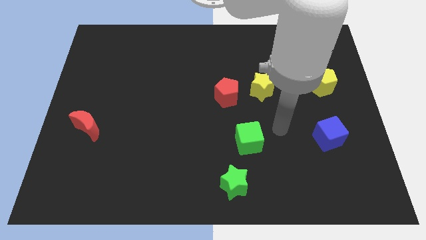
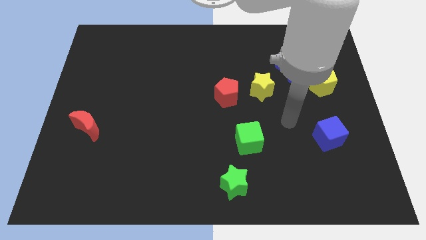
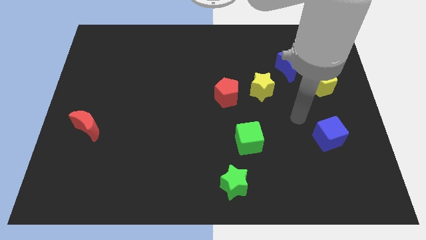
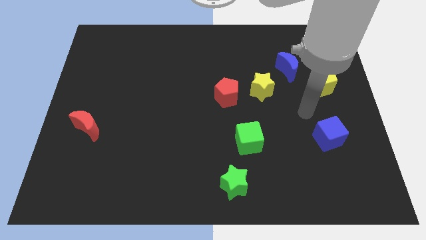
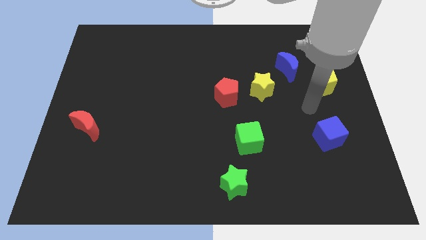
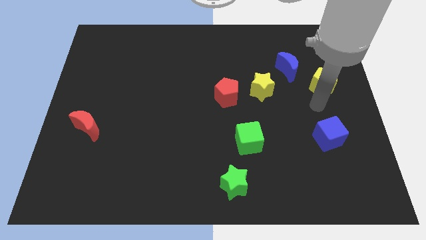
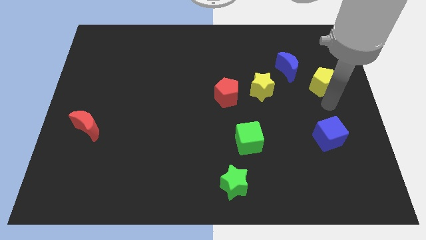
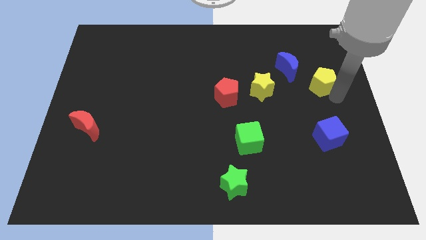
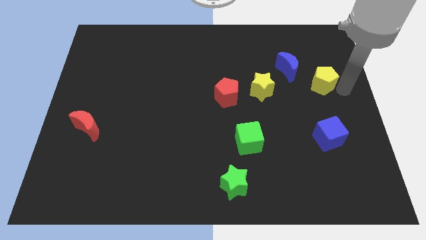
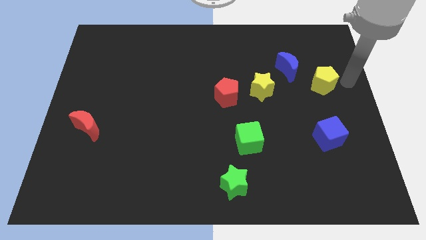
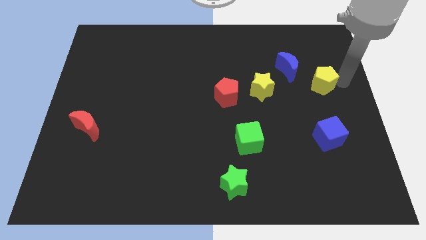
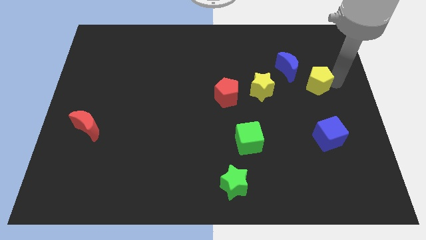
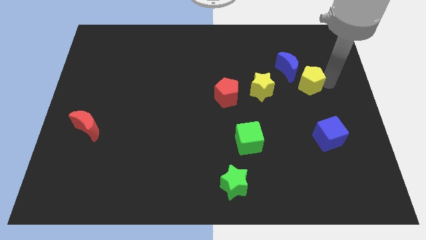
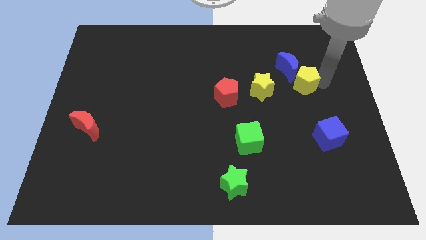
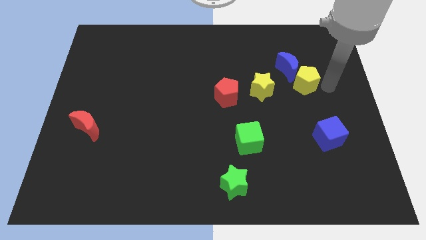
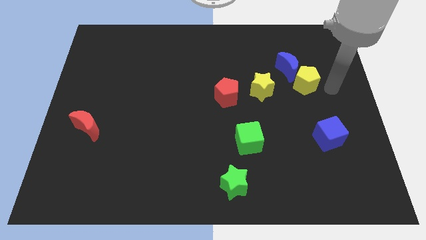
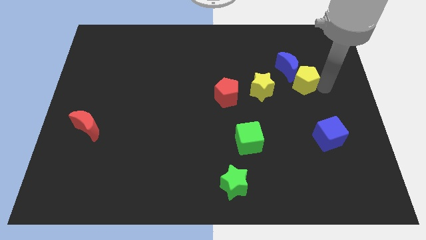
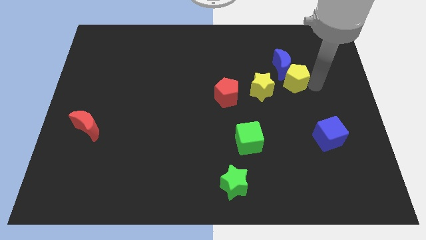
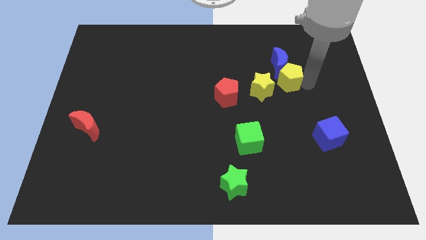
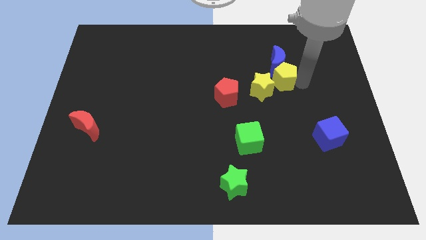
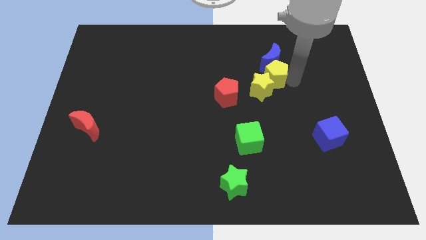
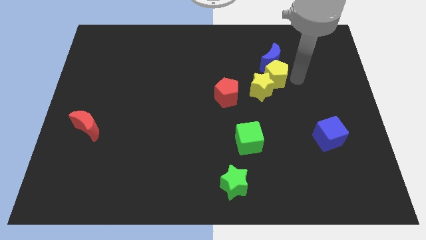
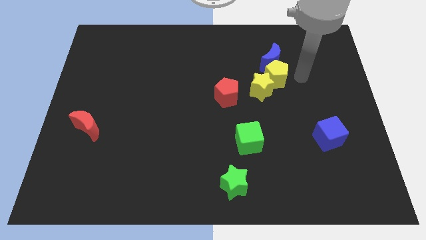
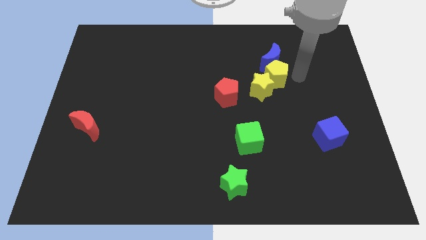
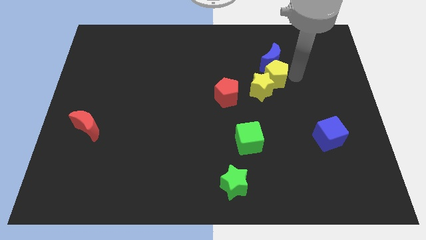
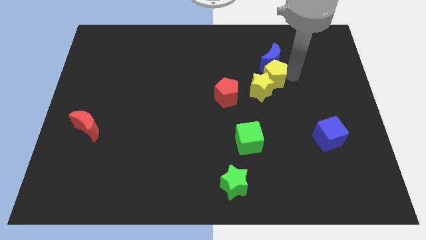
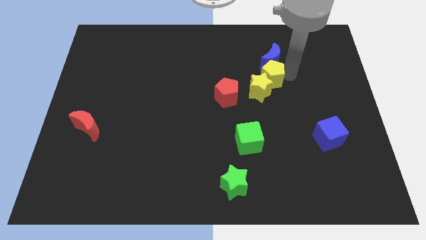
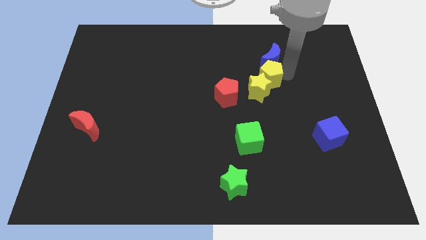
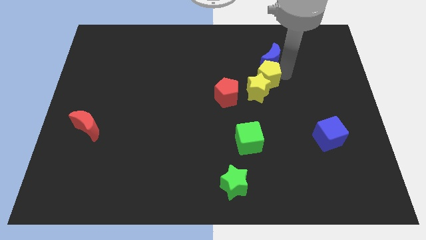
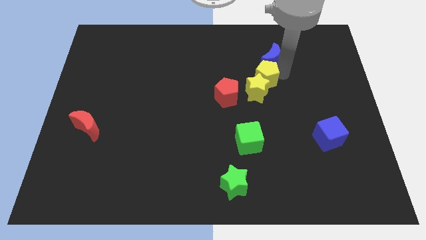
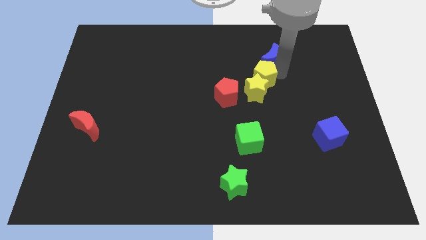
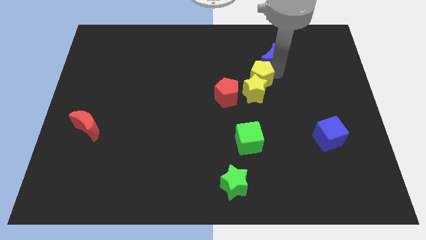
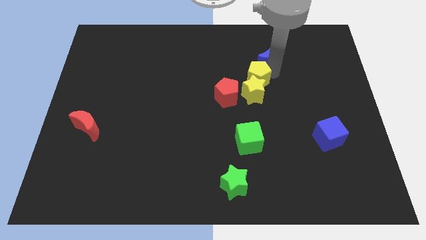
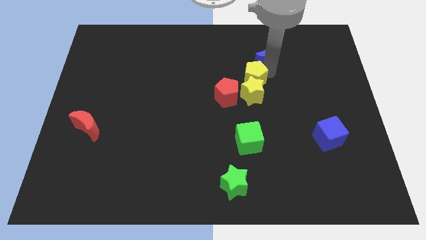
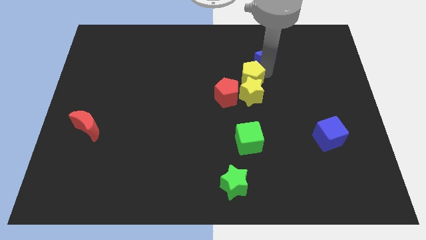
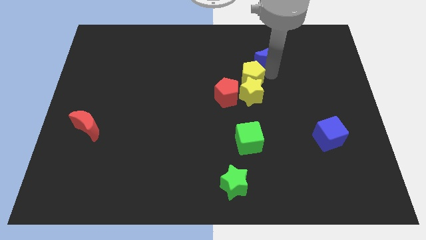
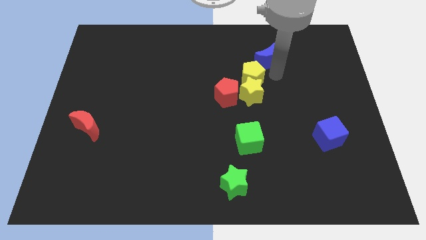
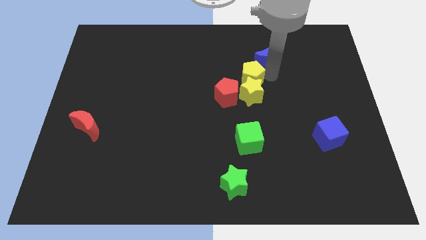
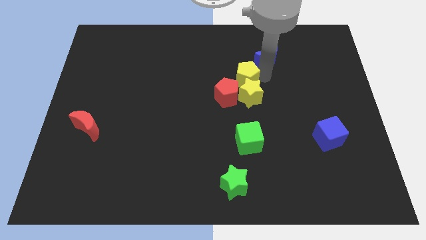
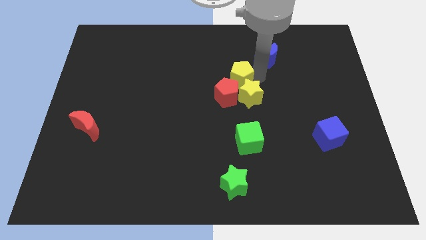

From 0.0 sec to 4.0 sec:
move the yellow pentagon left

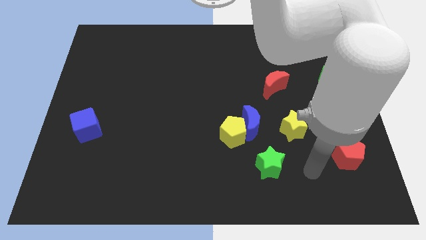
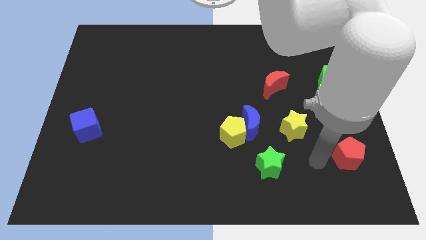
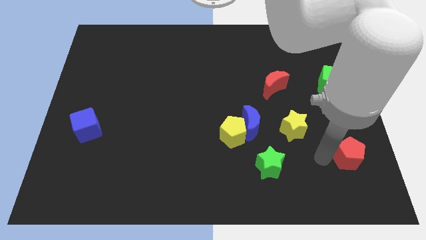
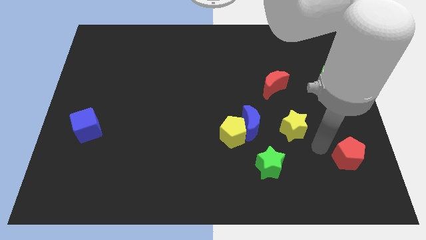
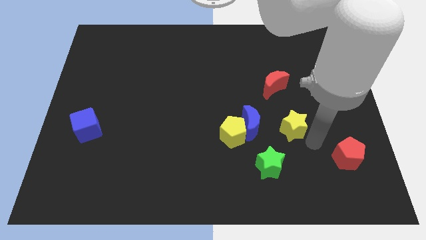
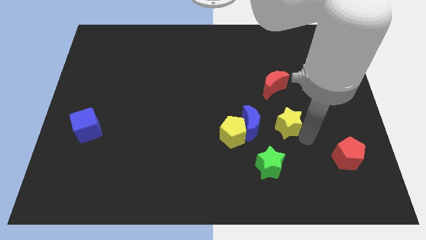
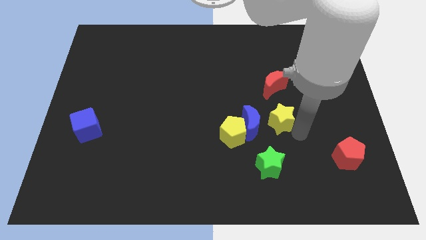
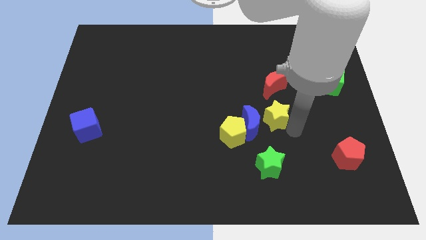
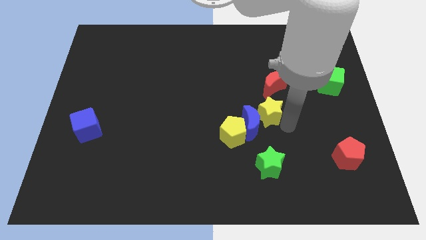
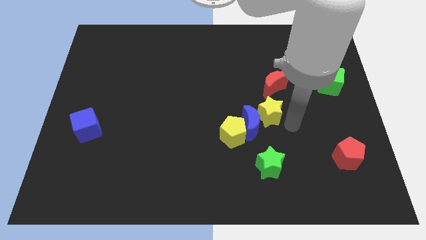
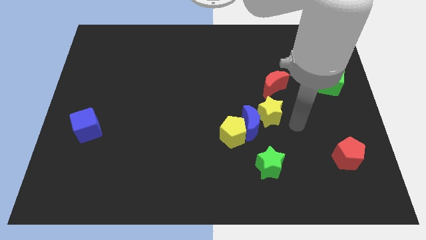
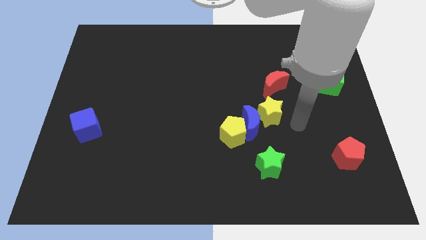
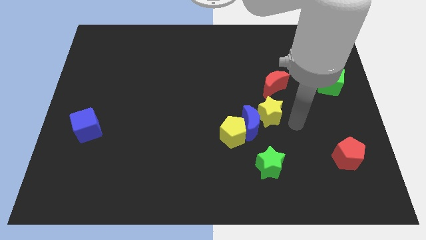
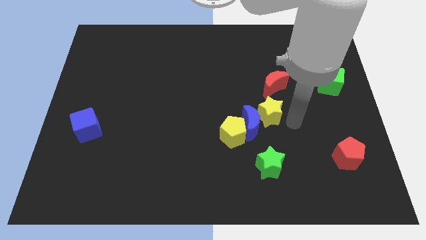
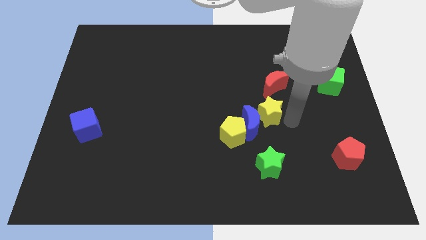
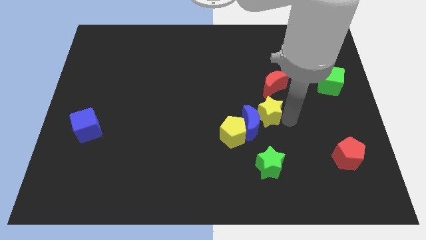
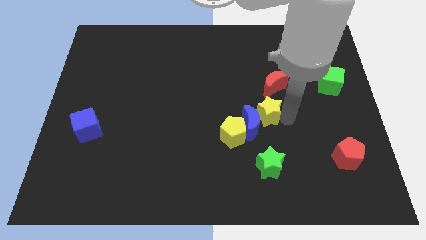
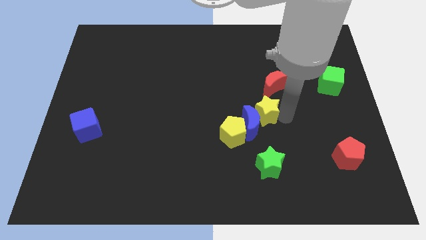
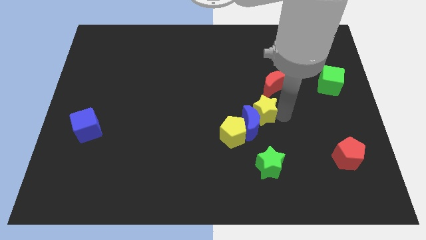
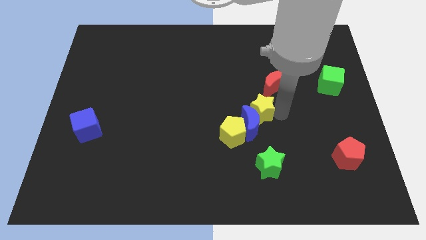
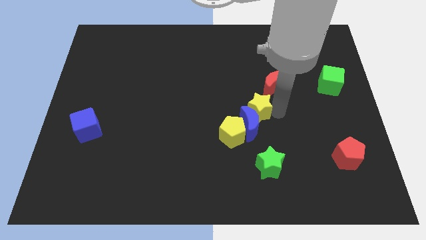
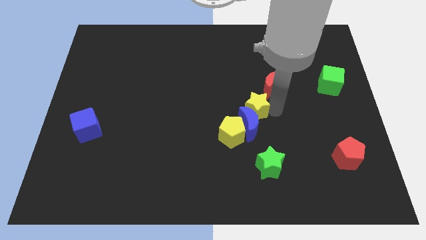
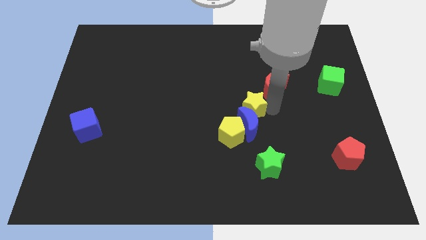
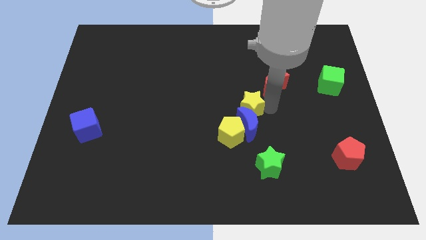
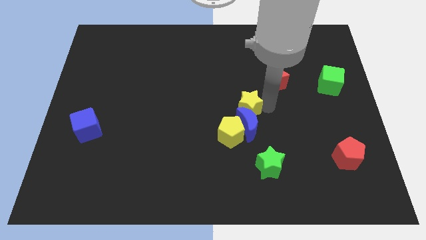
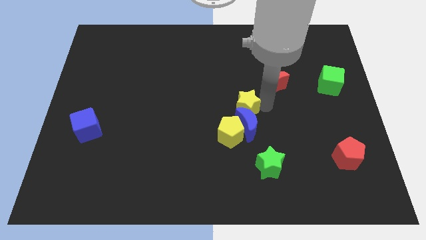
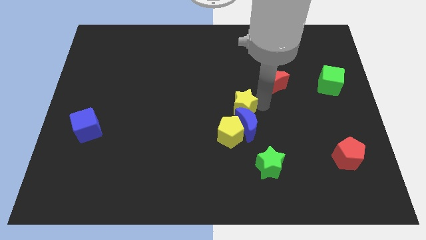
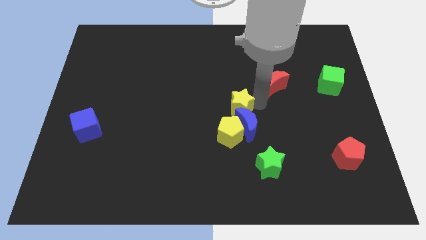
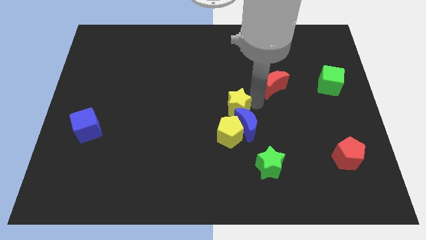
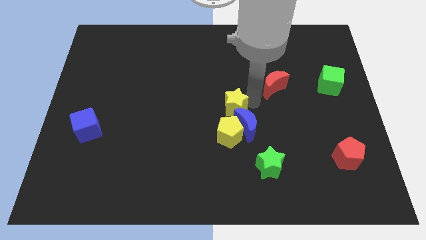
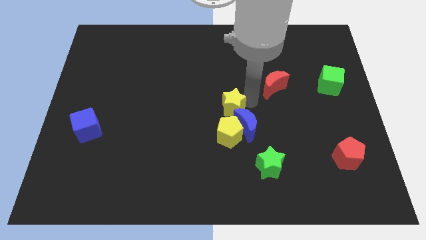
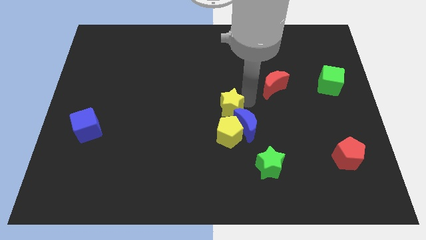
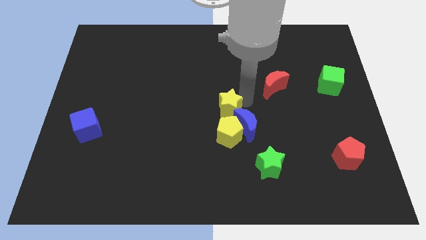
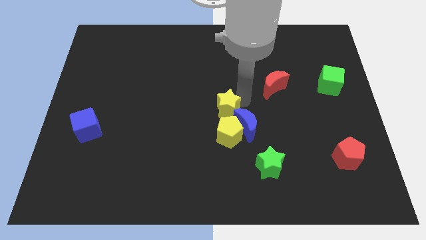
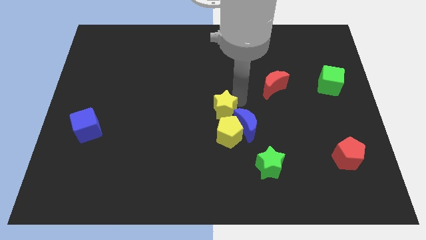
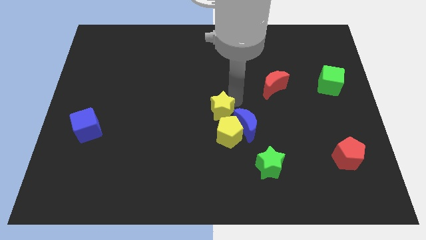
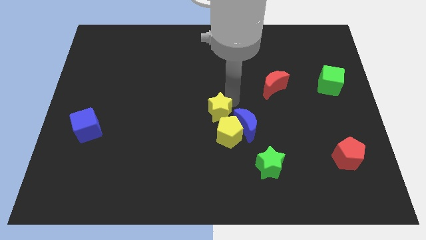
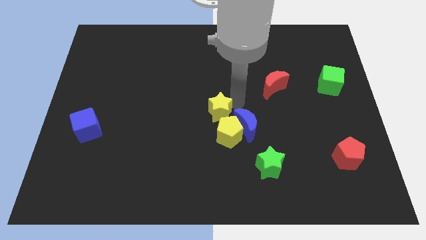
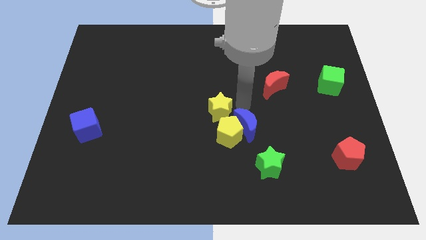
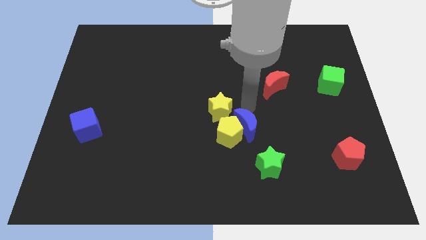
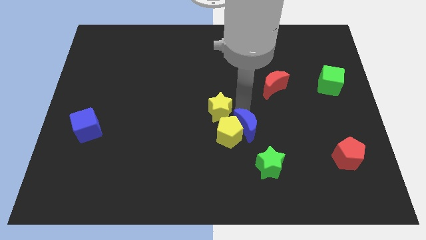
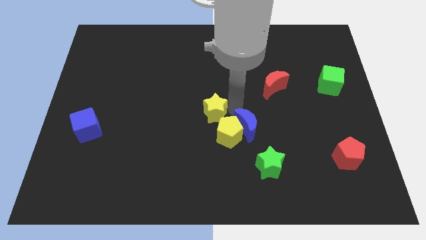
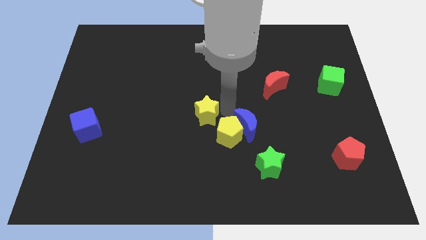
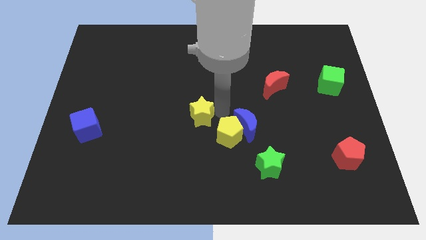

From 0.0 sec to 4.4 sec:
push the yellow star left
